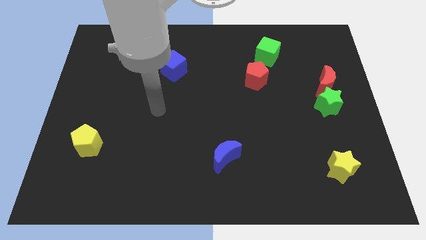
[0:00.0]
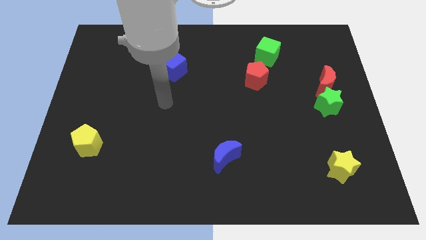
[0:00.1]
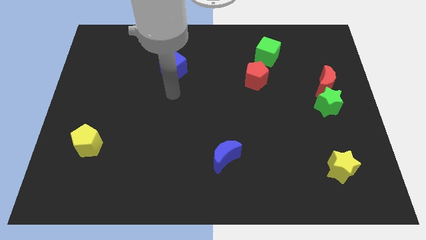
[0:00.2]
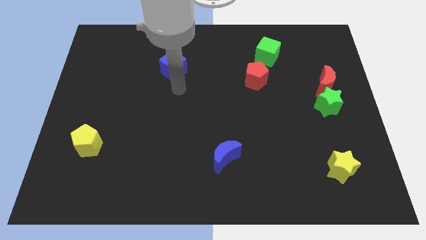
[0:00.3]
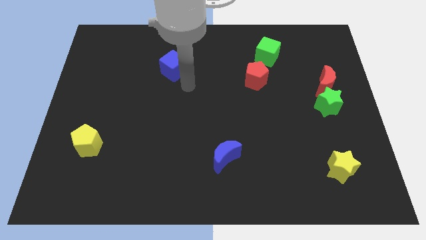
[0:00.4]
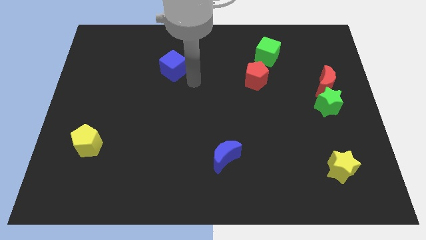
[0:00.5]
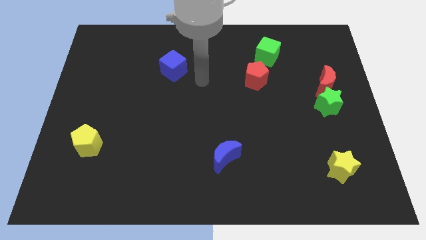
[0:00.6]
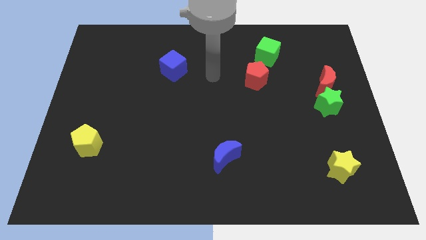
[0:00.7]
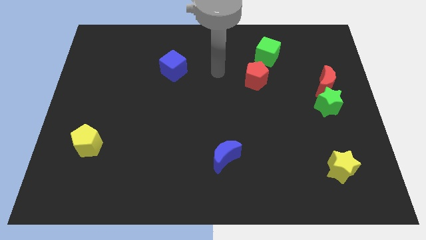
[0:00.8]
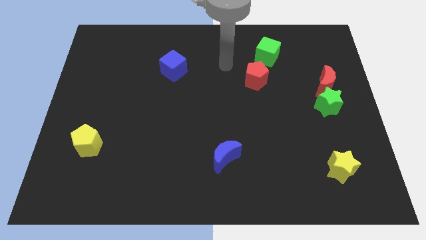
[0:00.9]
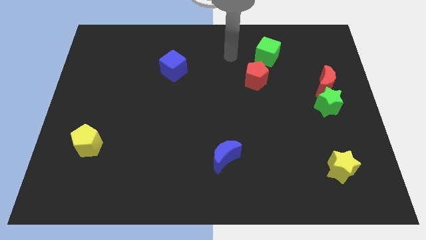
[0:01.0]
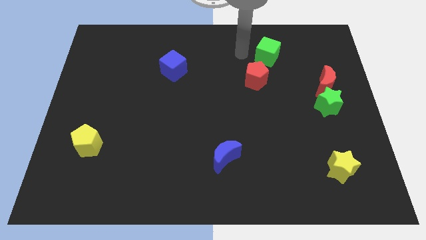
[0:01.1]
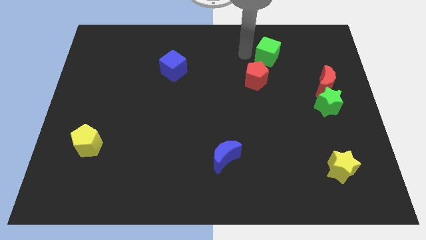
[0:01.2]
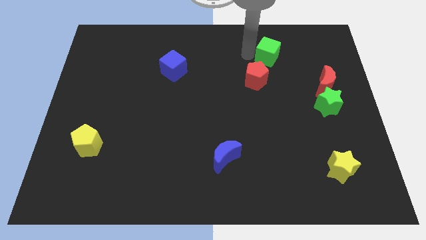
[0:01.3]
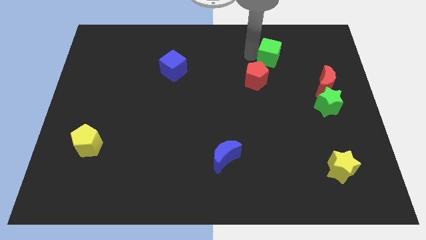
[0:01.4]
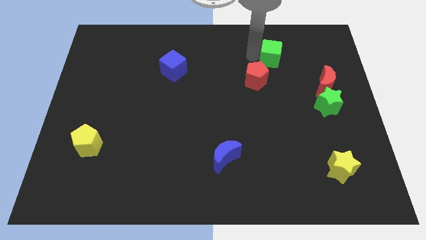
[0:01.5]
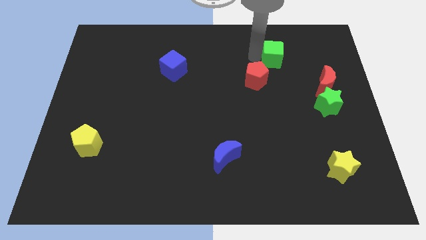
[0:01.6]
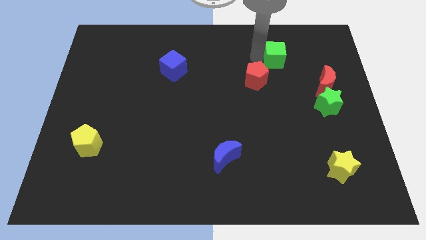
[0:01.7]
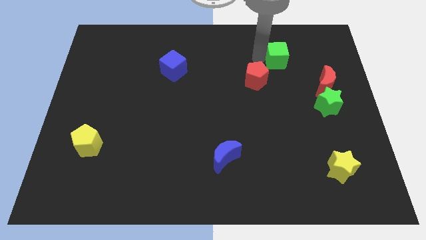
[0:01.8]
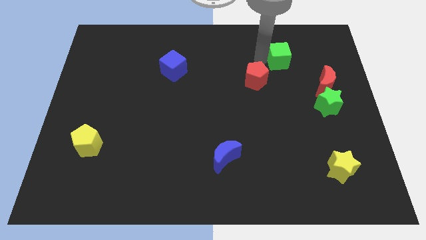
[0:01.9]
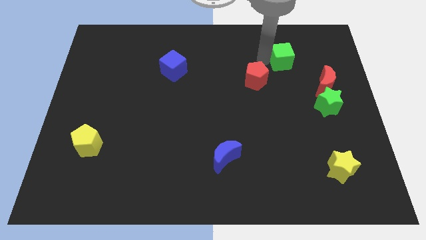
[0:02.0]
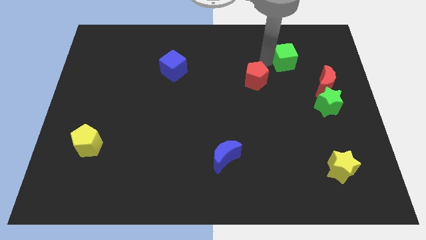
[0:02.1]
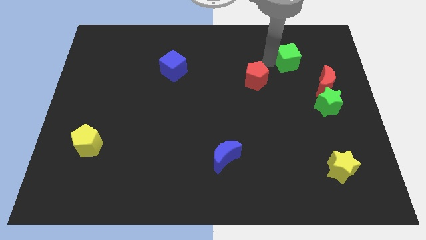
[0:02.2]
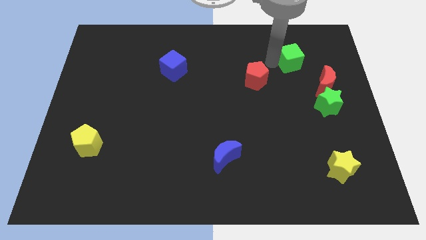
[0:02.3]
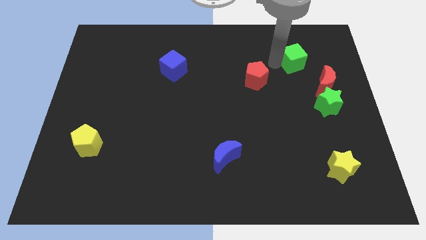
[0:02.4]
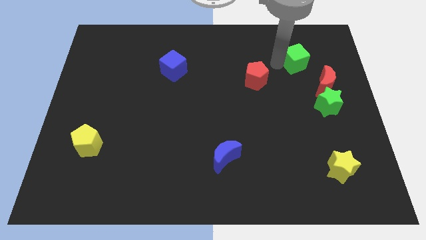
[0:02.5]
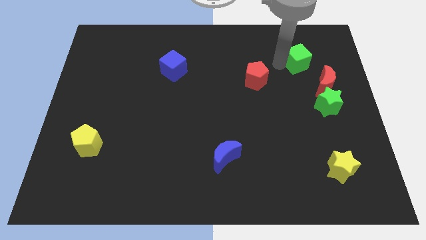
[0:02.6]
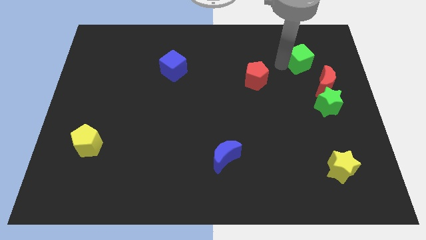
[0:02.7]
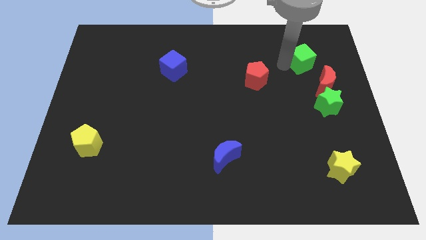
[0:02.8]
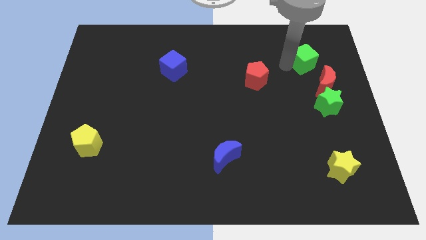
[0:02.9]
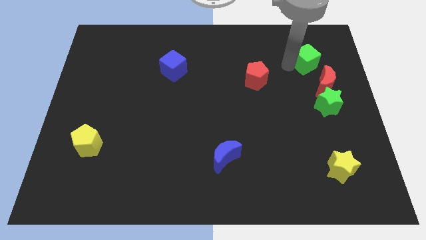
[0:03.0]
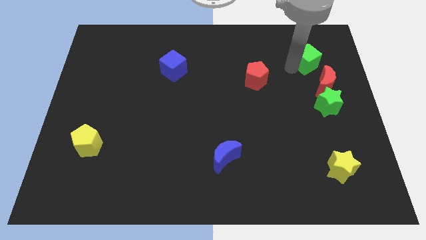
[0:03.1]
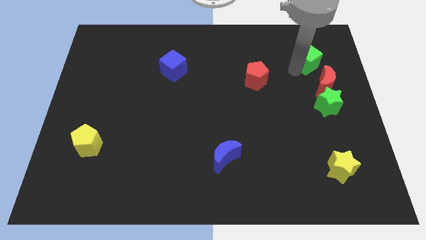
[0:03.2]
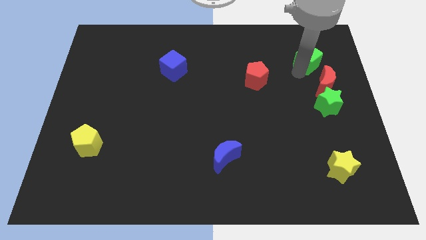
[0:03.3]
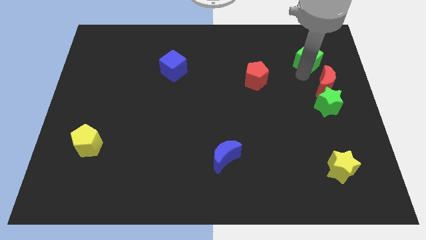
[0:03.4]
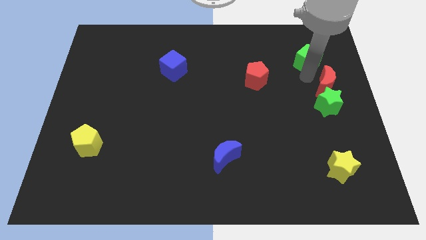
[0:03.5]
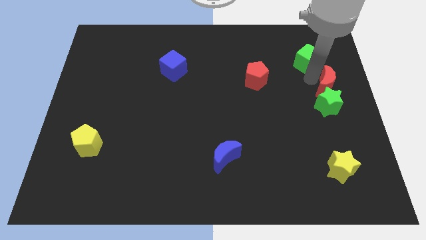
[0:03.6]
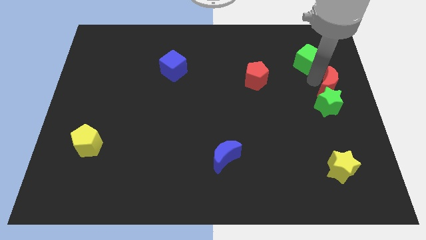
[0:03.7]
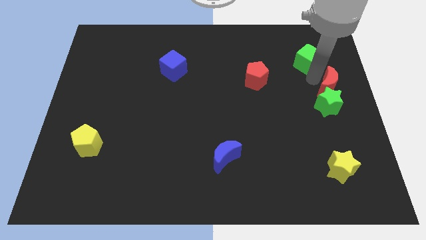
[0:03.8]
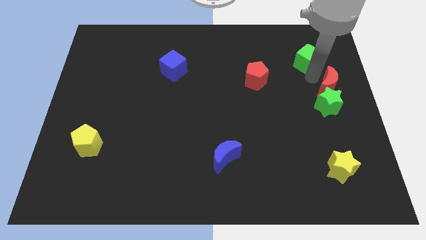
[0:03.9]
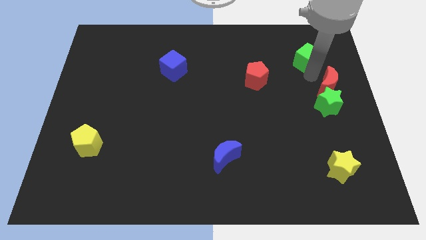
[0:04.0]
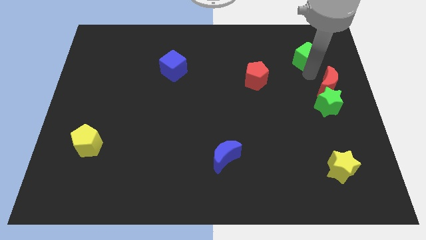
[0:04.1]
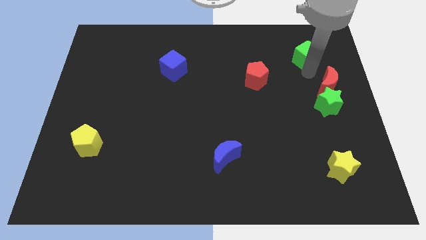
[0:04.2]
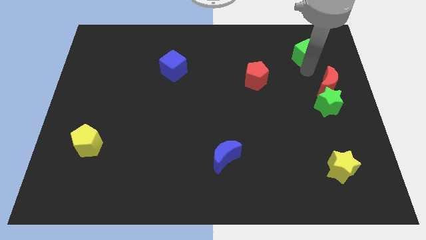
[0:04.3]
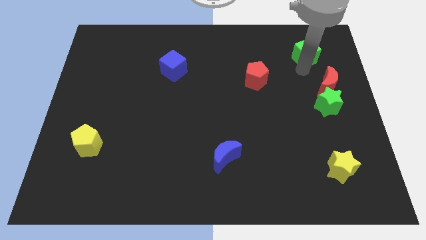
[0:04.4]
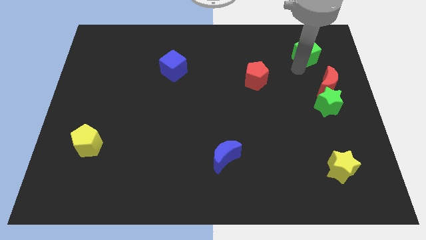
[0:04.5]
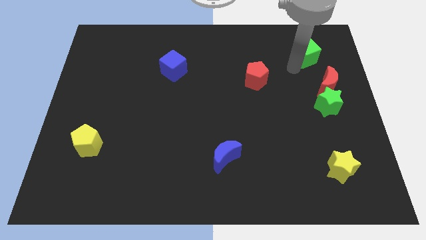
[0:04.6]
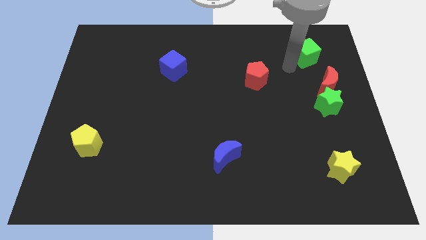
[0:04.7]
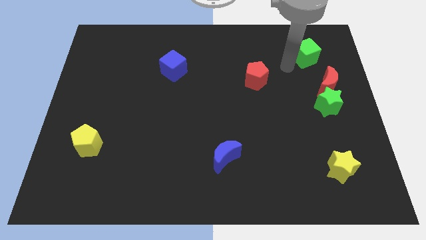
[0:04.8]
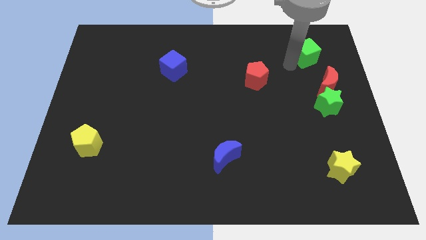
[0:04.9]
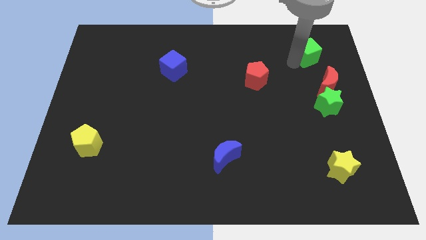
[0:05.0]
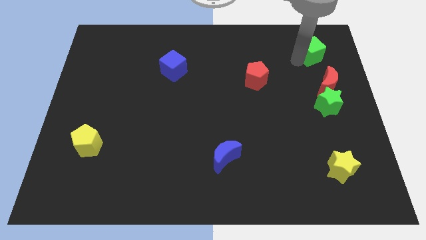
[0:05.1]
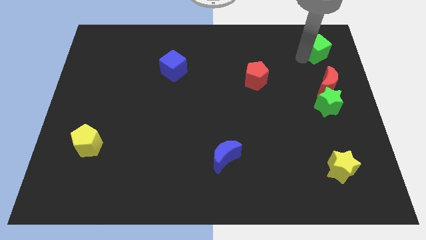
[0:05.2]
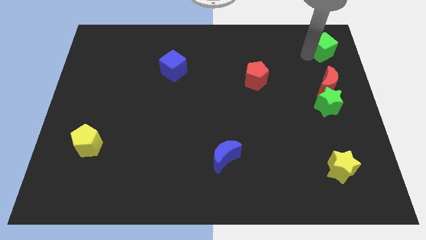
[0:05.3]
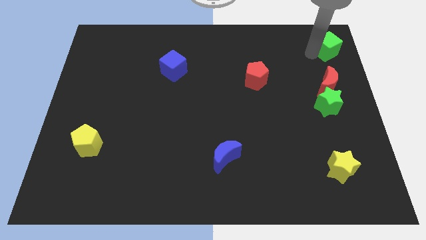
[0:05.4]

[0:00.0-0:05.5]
put the green cube to the upper right corner

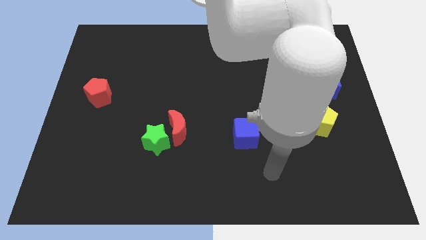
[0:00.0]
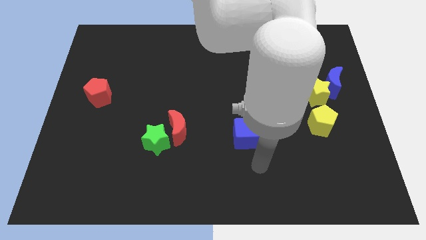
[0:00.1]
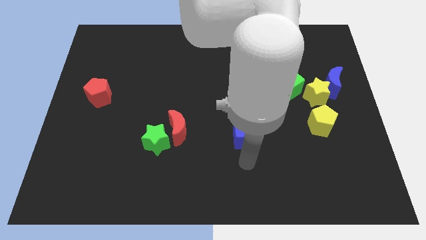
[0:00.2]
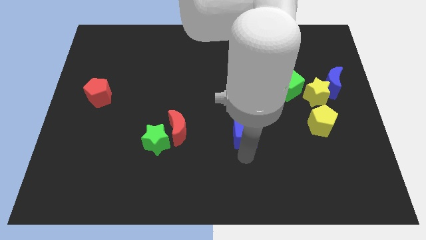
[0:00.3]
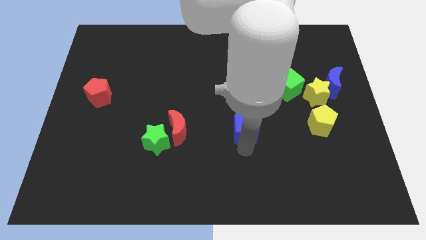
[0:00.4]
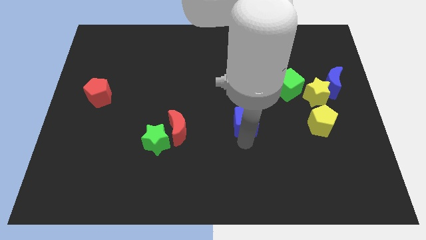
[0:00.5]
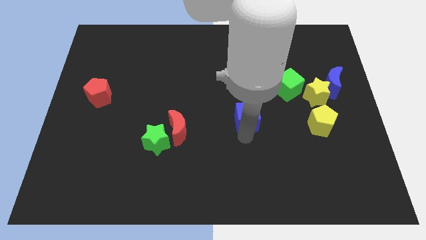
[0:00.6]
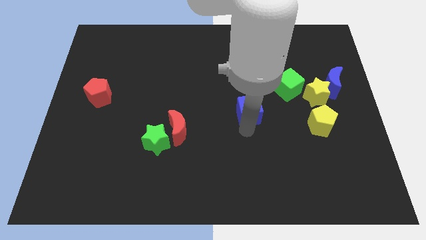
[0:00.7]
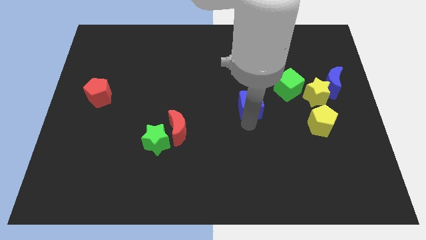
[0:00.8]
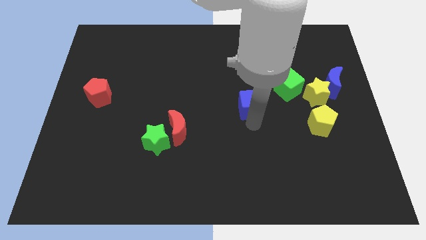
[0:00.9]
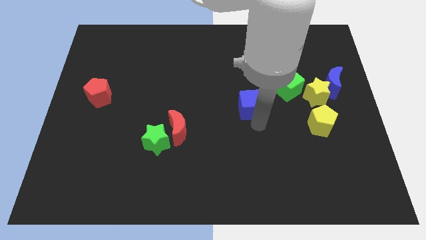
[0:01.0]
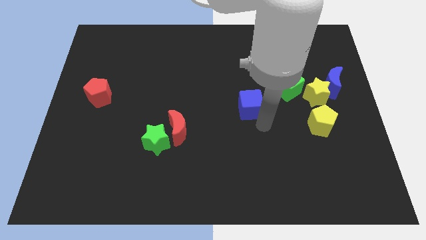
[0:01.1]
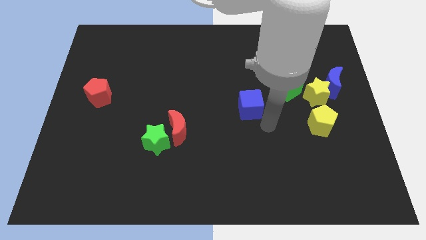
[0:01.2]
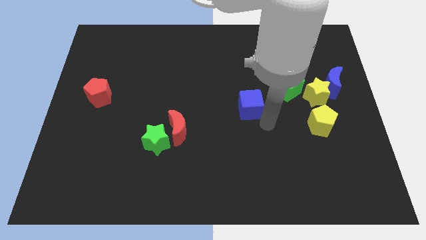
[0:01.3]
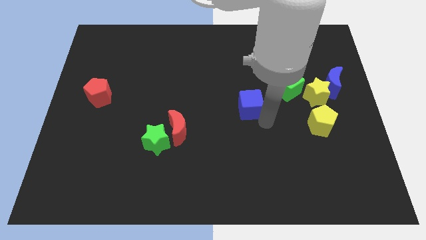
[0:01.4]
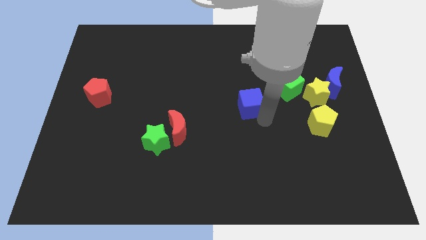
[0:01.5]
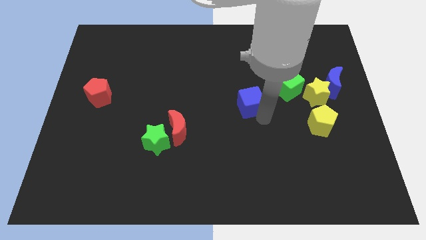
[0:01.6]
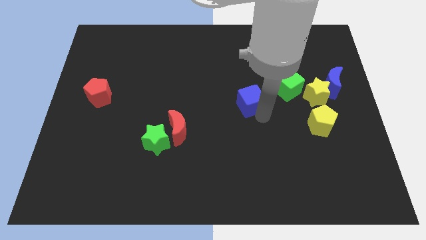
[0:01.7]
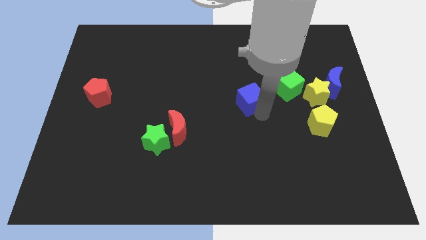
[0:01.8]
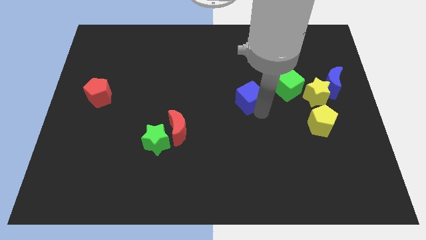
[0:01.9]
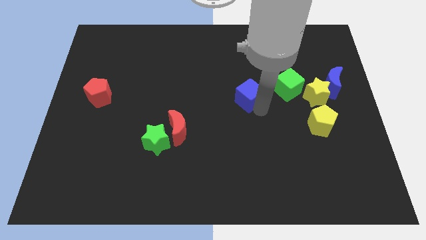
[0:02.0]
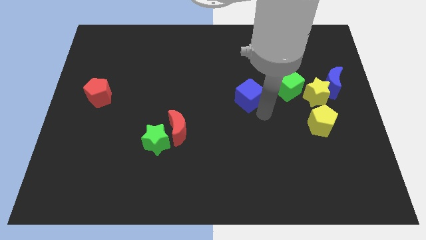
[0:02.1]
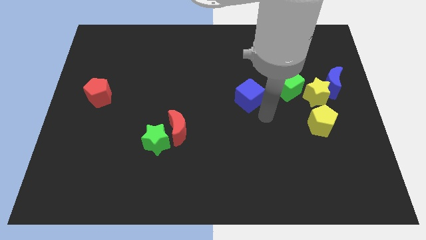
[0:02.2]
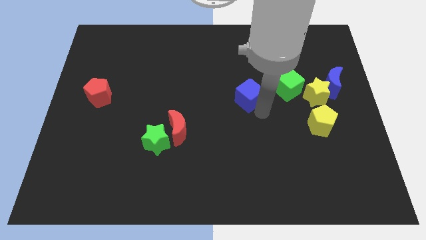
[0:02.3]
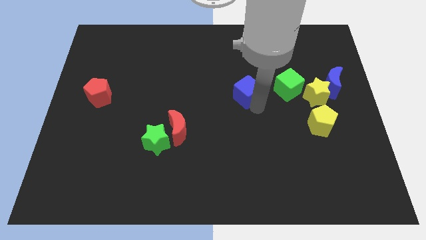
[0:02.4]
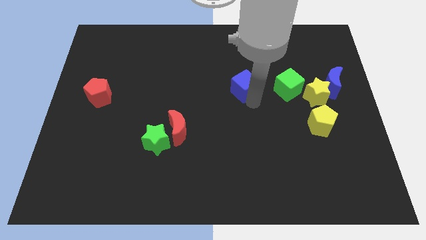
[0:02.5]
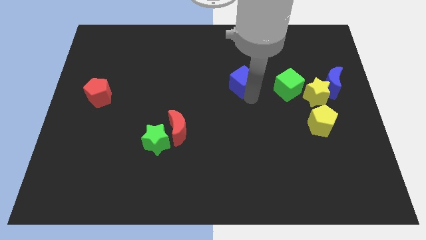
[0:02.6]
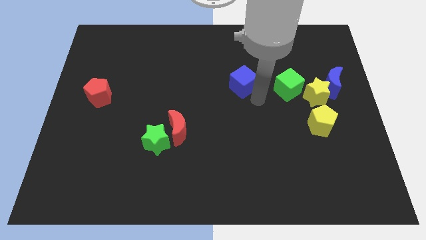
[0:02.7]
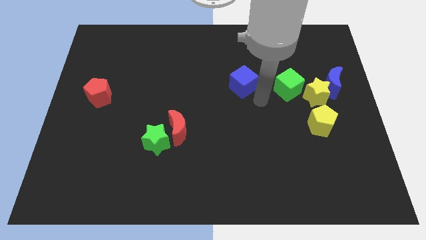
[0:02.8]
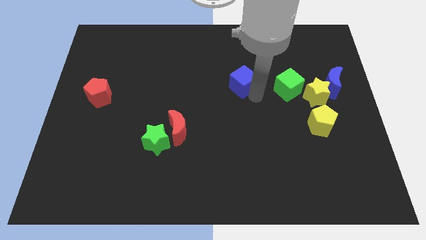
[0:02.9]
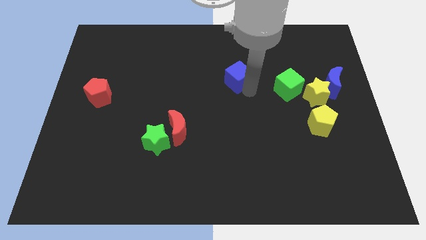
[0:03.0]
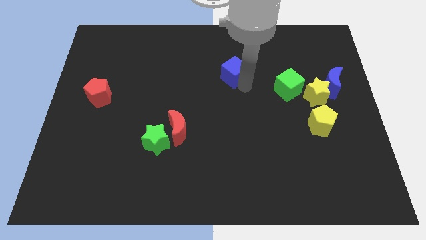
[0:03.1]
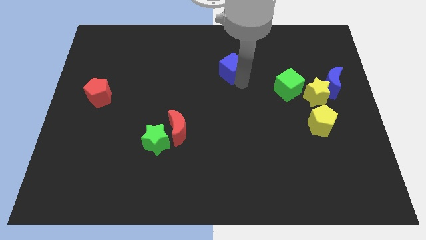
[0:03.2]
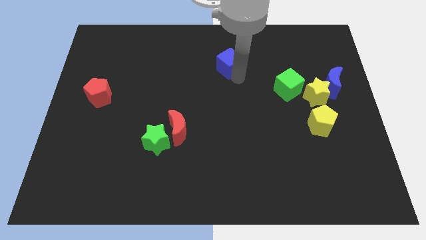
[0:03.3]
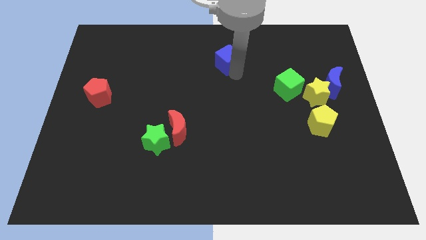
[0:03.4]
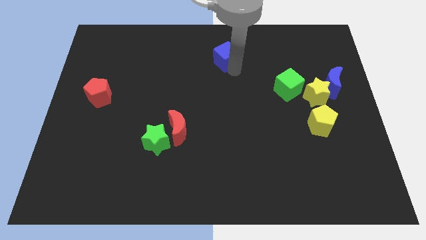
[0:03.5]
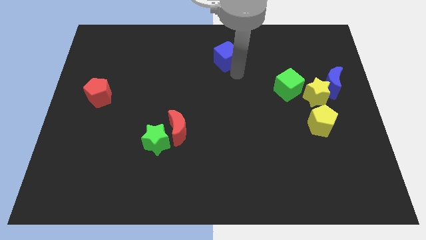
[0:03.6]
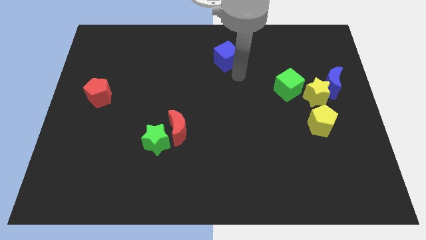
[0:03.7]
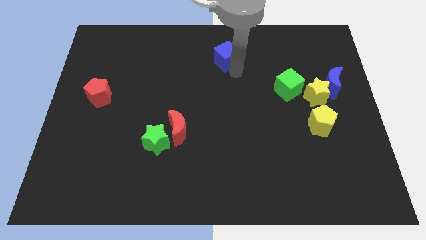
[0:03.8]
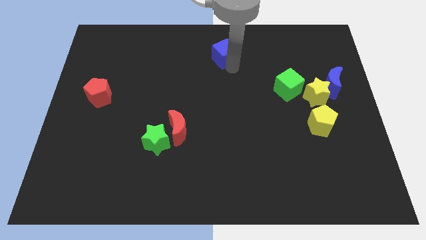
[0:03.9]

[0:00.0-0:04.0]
slide the blue cube to the top side
